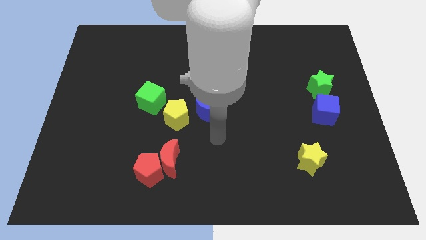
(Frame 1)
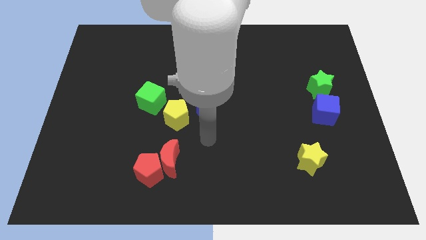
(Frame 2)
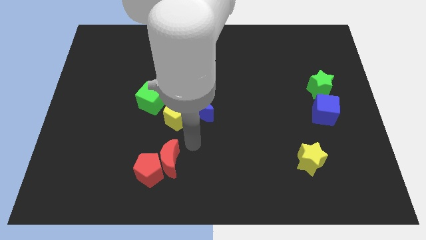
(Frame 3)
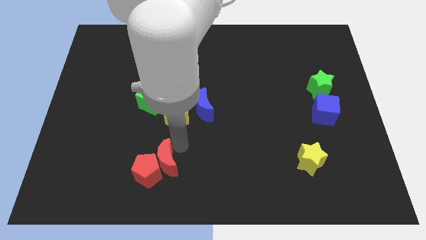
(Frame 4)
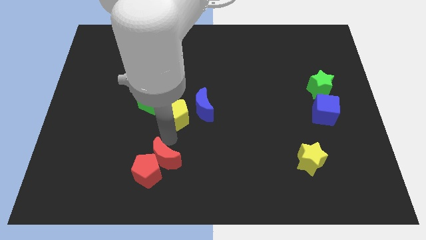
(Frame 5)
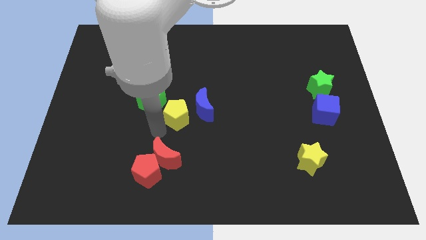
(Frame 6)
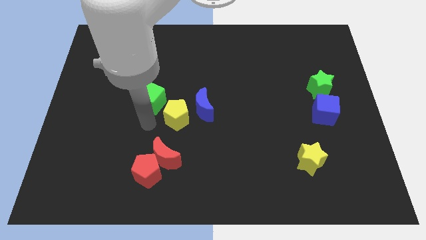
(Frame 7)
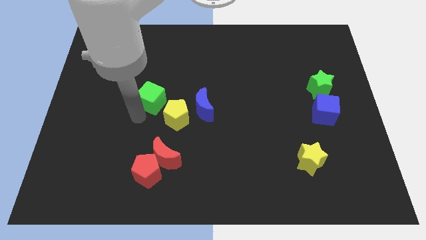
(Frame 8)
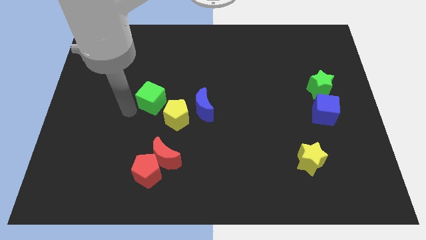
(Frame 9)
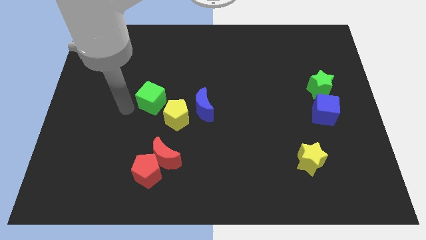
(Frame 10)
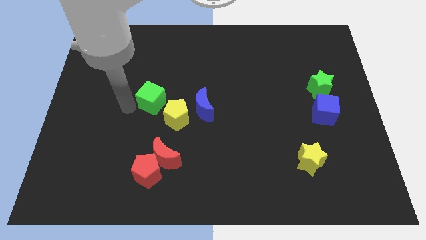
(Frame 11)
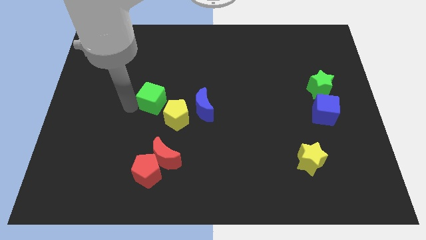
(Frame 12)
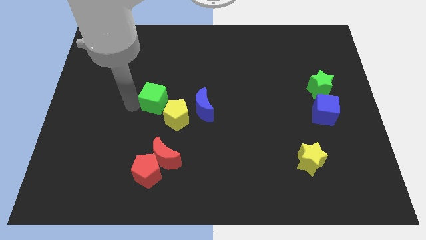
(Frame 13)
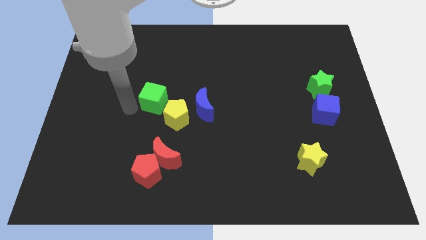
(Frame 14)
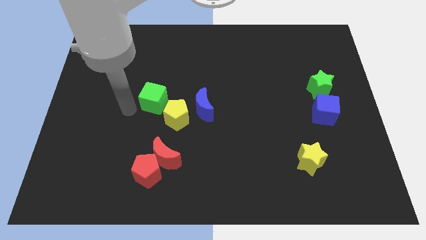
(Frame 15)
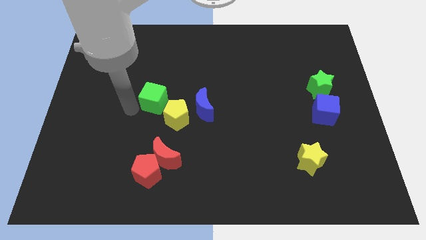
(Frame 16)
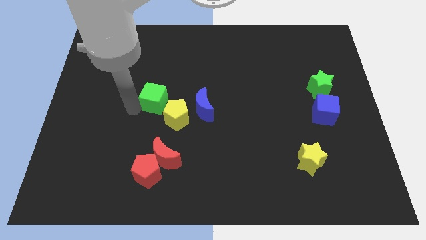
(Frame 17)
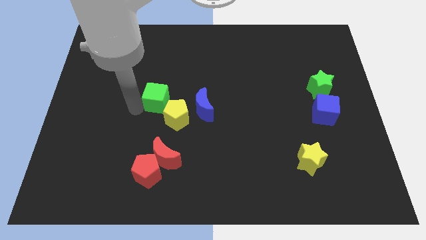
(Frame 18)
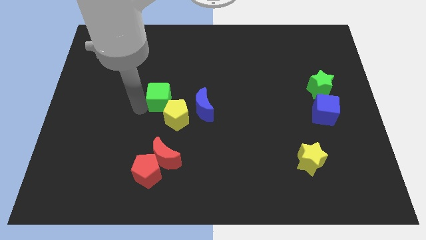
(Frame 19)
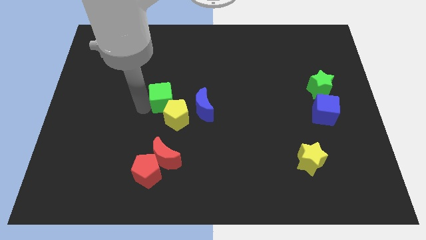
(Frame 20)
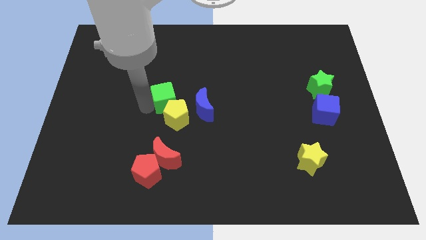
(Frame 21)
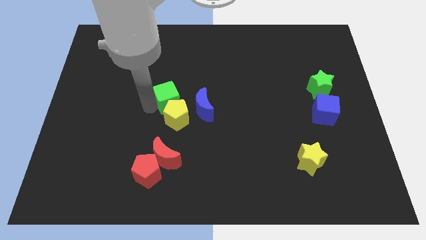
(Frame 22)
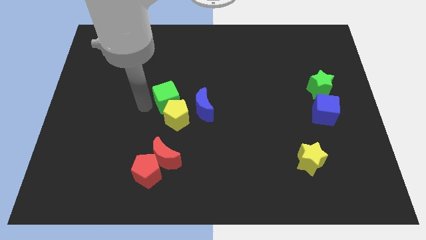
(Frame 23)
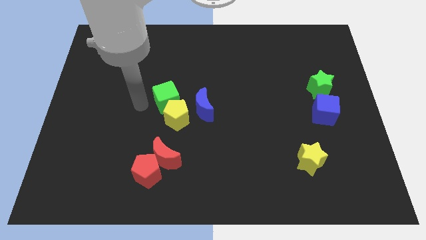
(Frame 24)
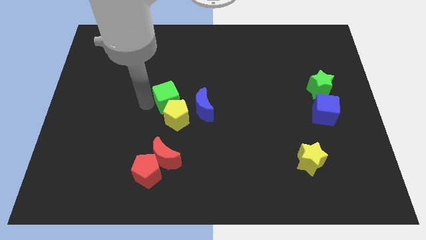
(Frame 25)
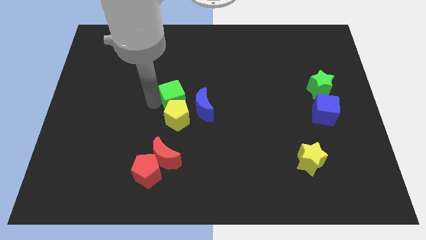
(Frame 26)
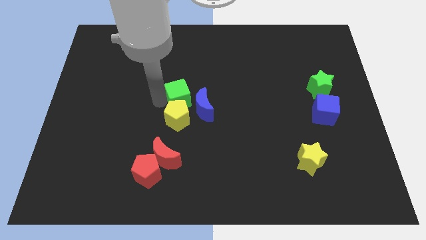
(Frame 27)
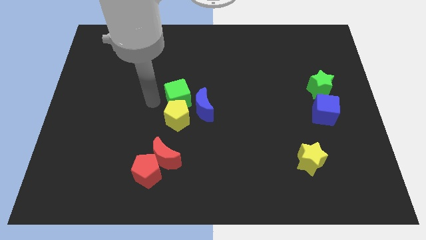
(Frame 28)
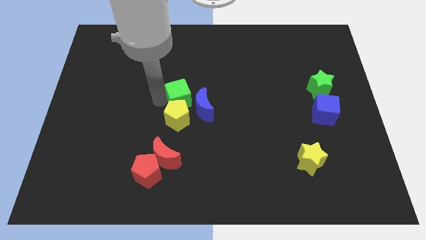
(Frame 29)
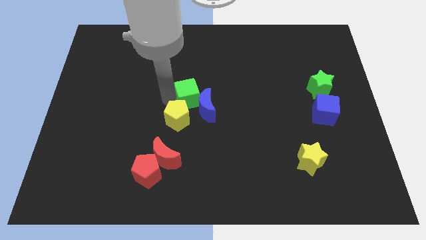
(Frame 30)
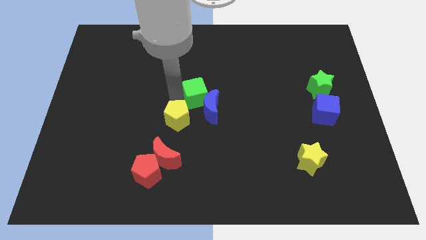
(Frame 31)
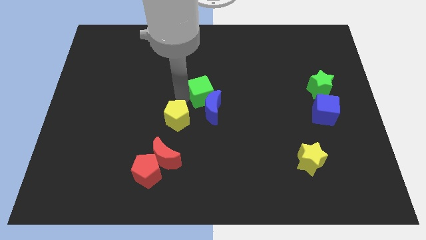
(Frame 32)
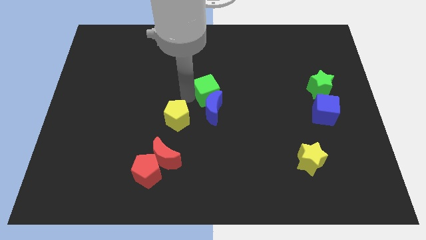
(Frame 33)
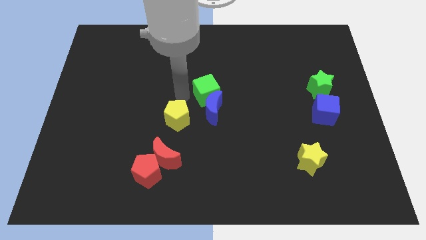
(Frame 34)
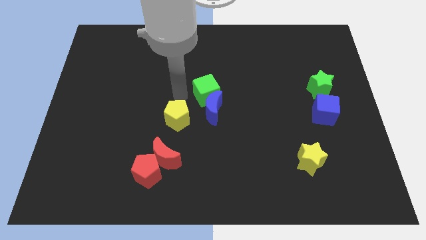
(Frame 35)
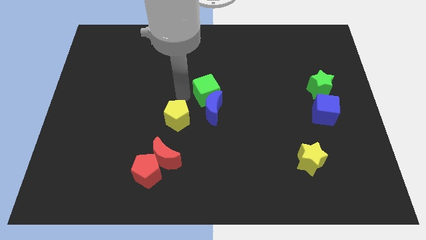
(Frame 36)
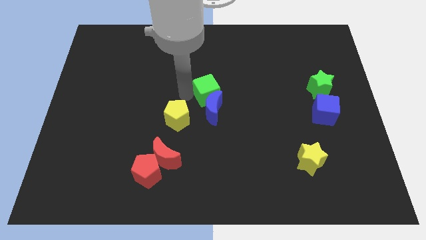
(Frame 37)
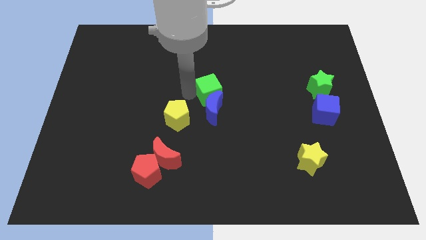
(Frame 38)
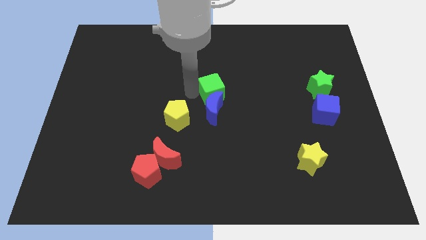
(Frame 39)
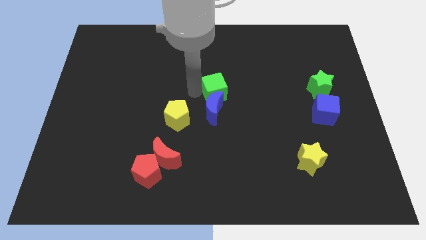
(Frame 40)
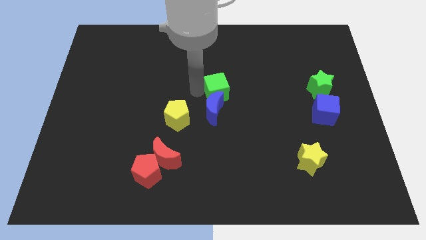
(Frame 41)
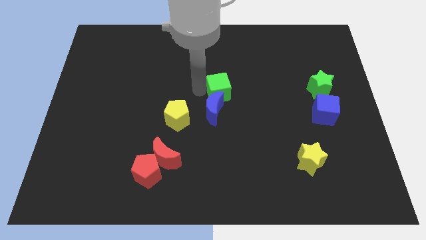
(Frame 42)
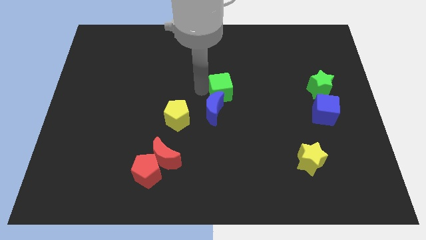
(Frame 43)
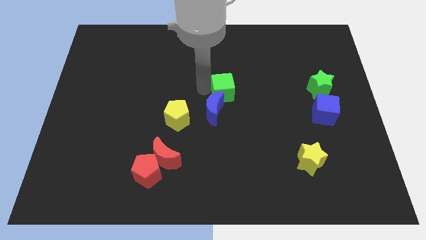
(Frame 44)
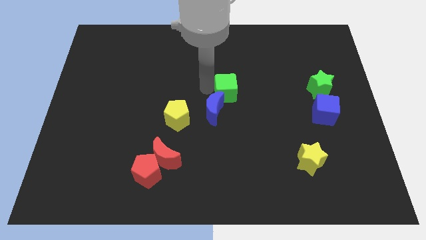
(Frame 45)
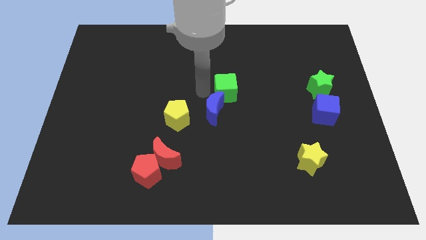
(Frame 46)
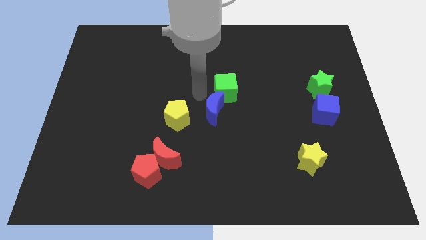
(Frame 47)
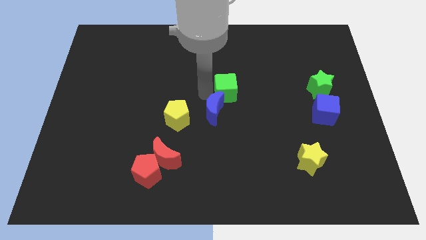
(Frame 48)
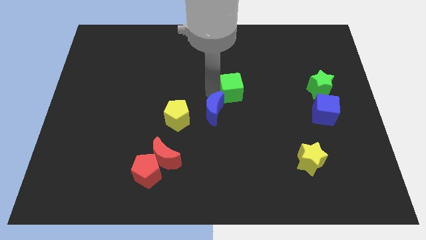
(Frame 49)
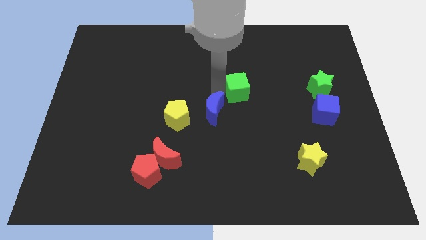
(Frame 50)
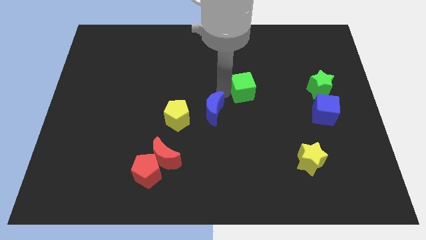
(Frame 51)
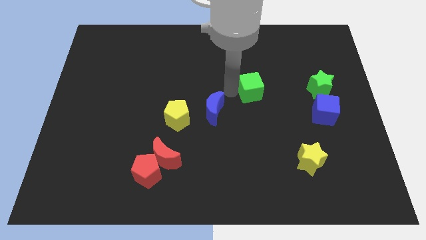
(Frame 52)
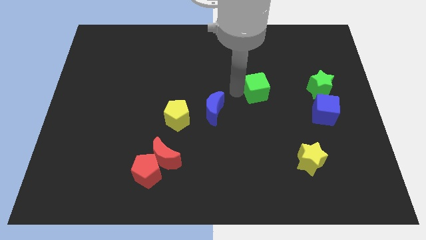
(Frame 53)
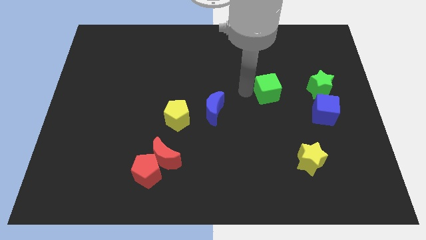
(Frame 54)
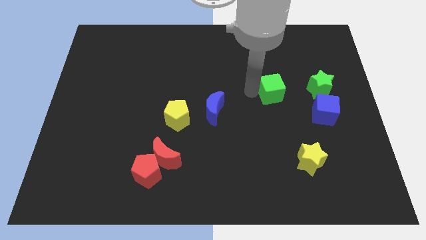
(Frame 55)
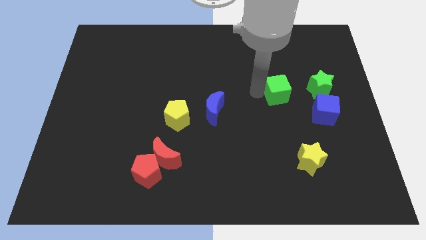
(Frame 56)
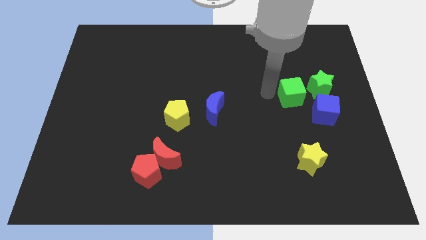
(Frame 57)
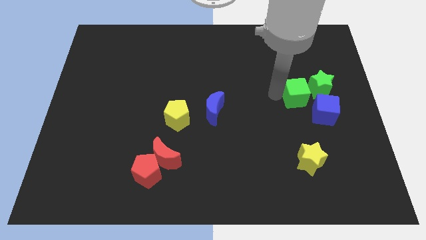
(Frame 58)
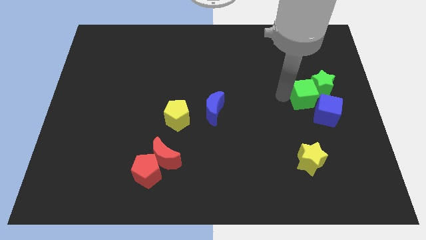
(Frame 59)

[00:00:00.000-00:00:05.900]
slide the green cube towards the green star

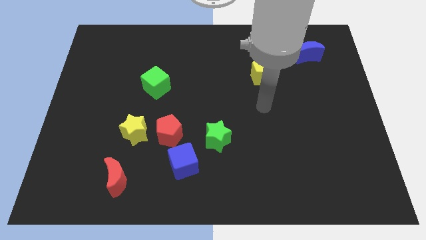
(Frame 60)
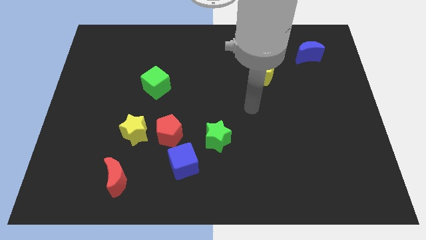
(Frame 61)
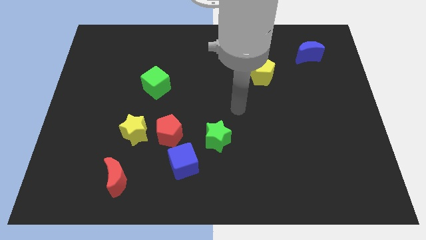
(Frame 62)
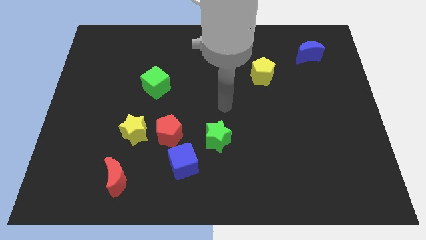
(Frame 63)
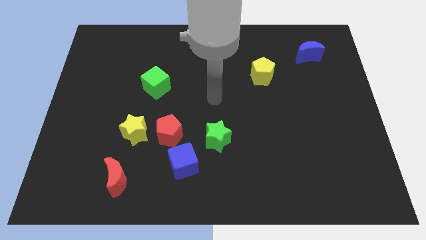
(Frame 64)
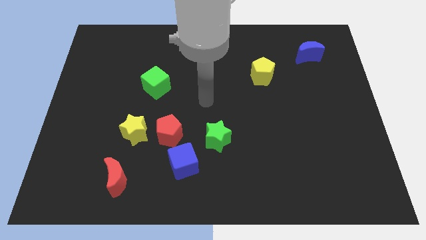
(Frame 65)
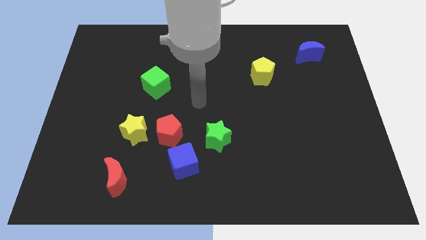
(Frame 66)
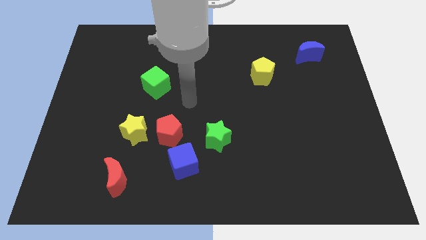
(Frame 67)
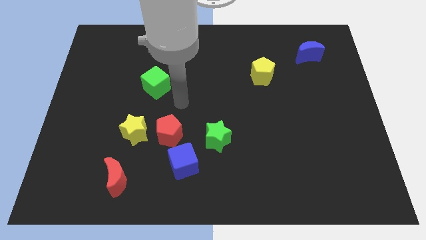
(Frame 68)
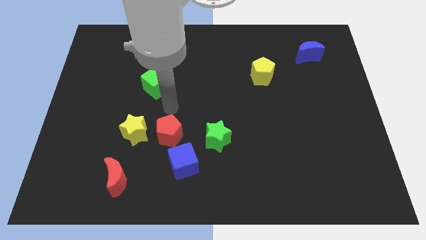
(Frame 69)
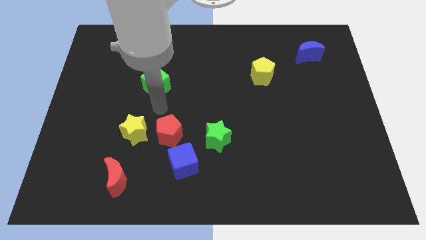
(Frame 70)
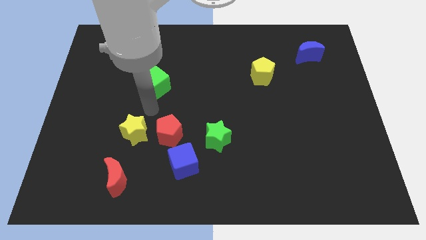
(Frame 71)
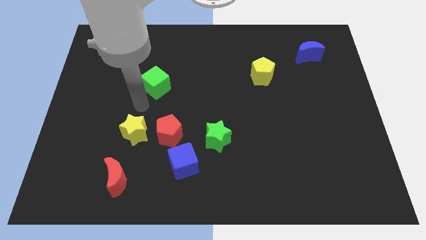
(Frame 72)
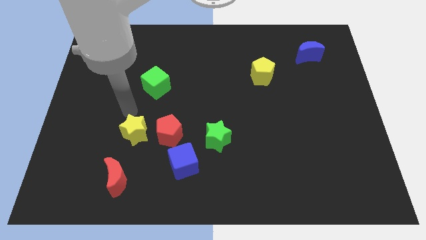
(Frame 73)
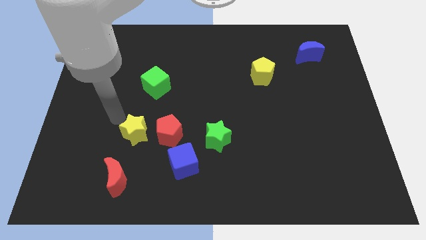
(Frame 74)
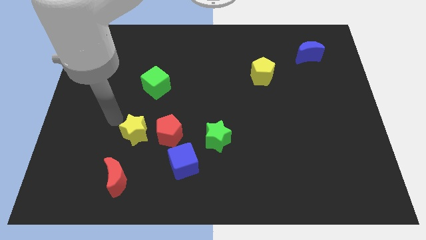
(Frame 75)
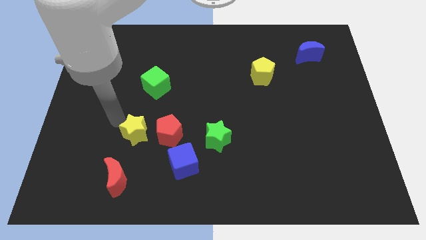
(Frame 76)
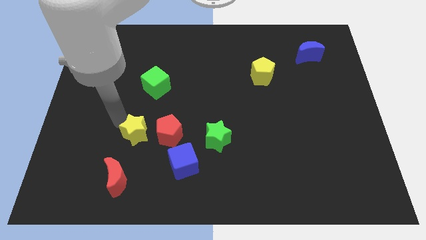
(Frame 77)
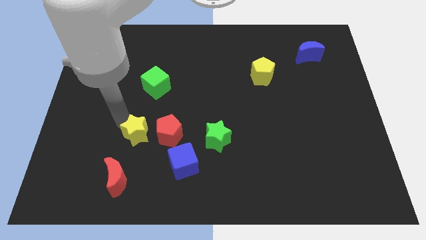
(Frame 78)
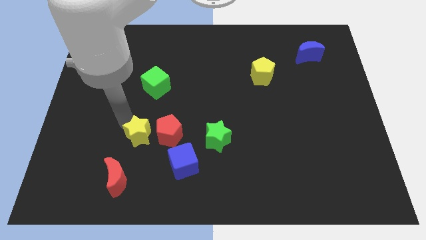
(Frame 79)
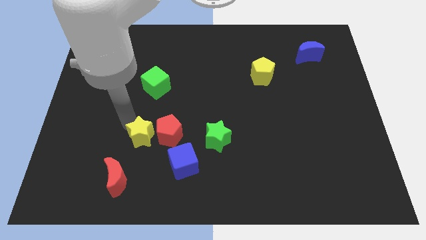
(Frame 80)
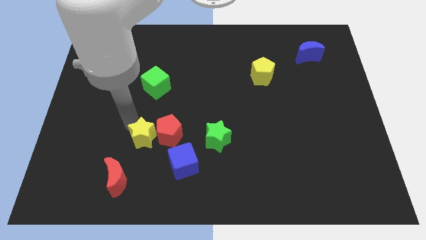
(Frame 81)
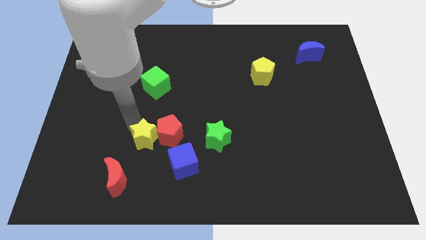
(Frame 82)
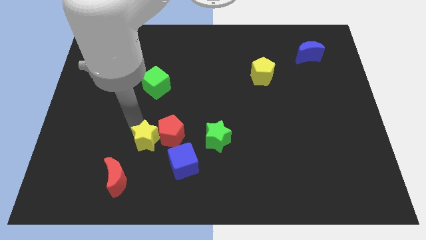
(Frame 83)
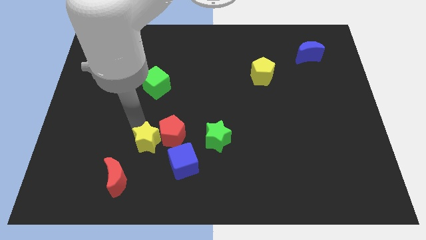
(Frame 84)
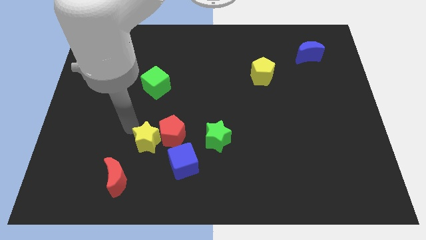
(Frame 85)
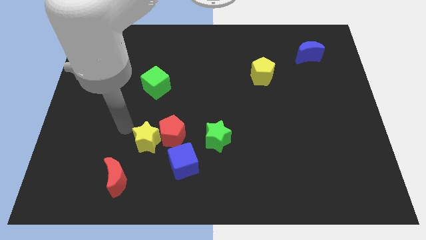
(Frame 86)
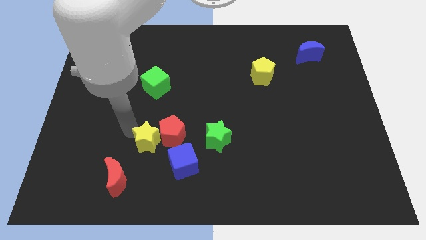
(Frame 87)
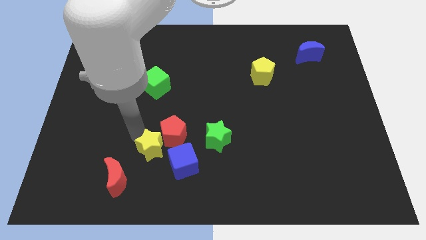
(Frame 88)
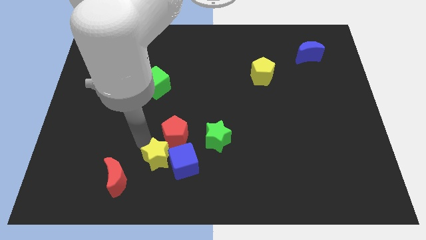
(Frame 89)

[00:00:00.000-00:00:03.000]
put the yellow star to the blue cube
